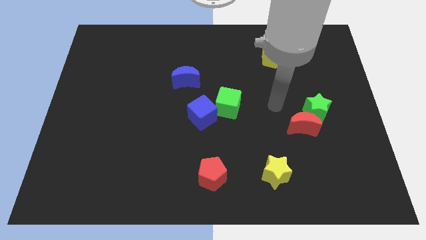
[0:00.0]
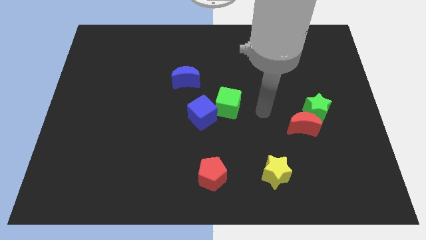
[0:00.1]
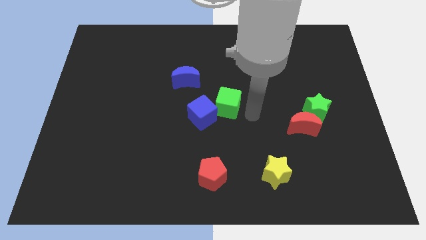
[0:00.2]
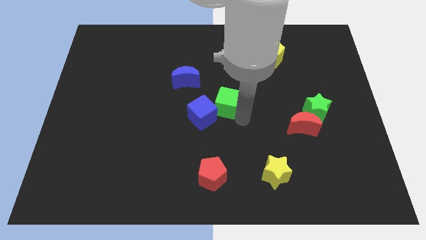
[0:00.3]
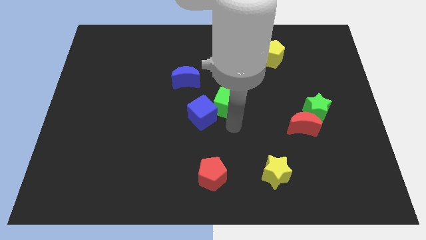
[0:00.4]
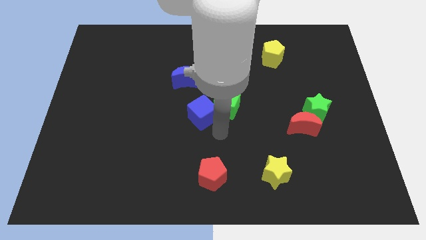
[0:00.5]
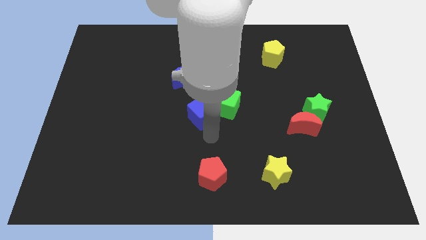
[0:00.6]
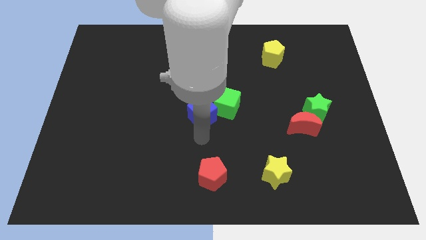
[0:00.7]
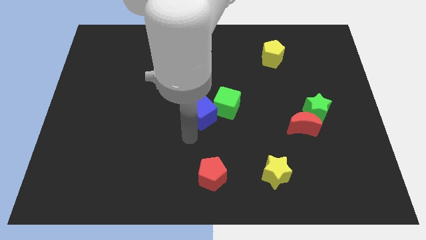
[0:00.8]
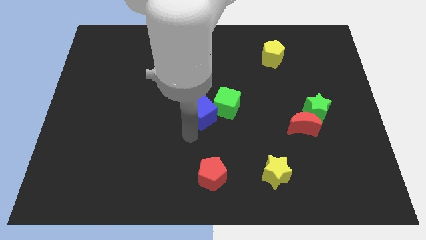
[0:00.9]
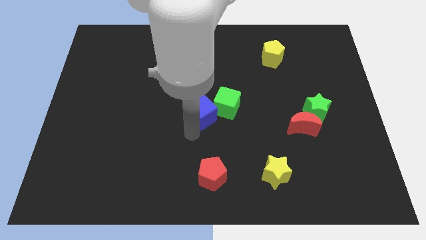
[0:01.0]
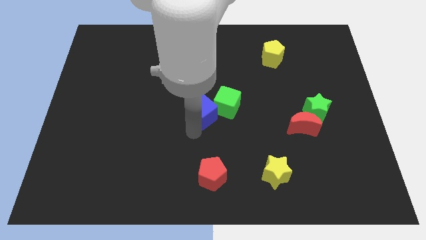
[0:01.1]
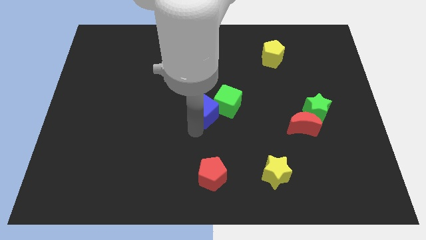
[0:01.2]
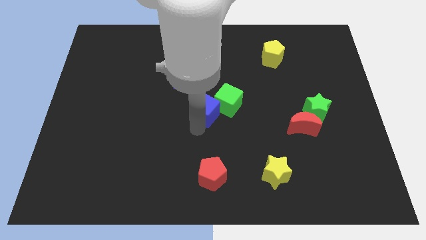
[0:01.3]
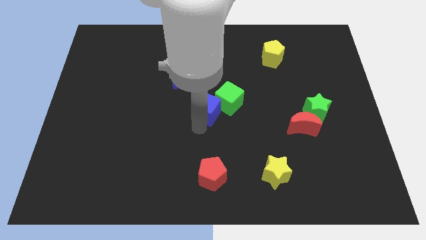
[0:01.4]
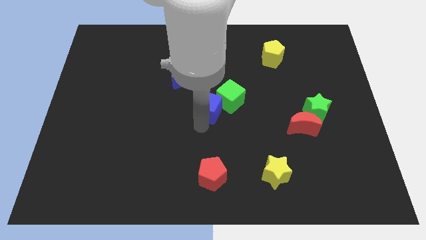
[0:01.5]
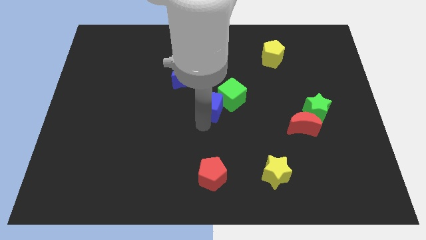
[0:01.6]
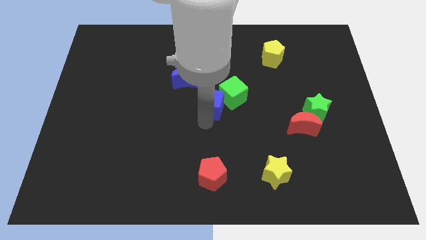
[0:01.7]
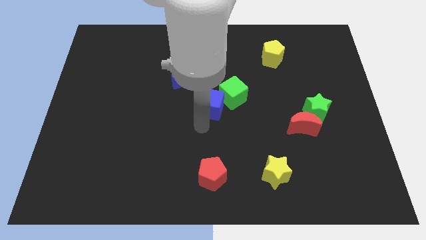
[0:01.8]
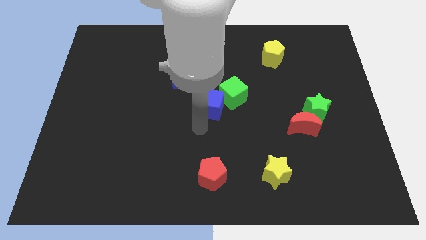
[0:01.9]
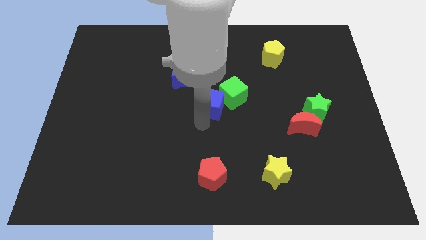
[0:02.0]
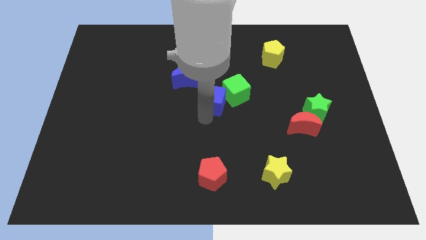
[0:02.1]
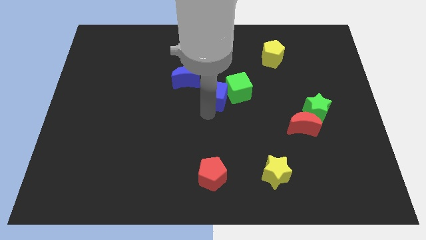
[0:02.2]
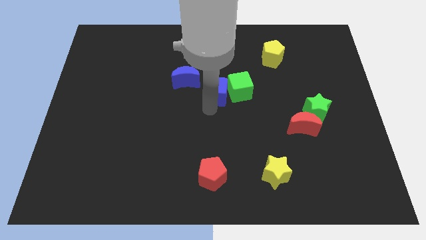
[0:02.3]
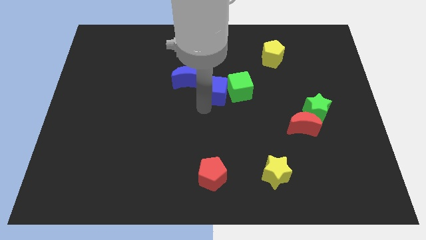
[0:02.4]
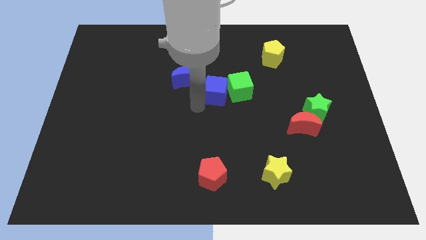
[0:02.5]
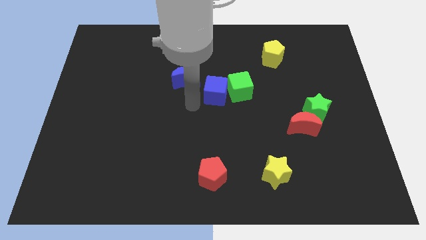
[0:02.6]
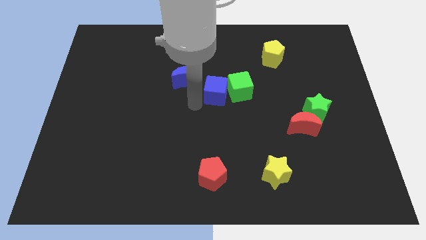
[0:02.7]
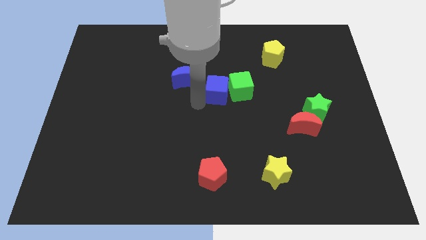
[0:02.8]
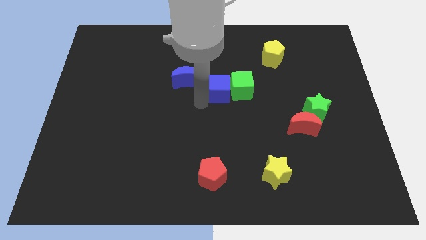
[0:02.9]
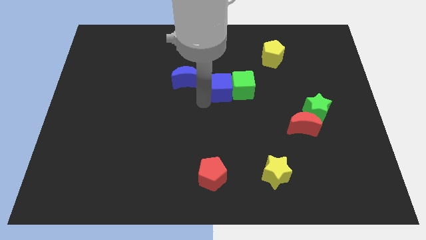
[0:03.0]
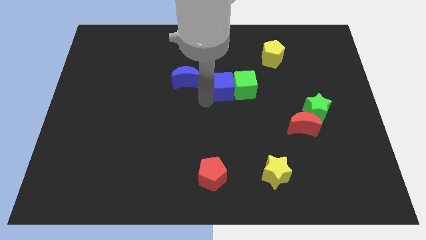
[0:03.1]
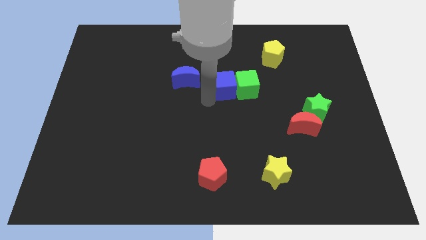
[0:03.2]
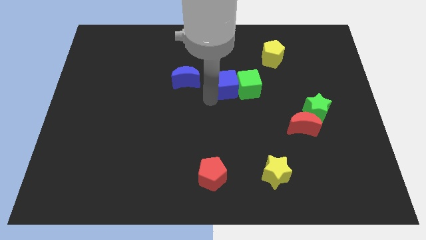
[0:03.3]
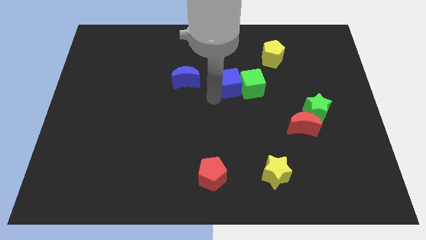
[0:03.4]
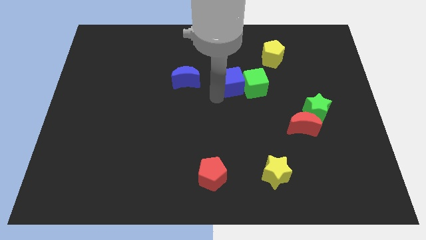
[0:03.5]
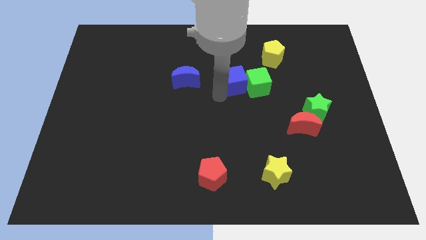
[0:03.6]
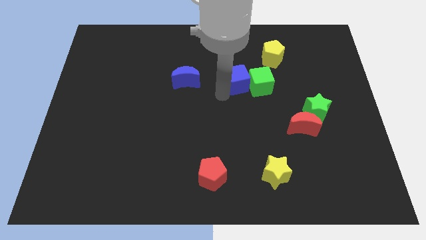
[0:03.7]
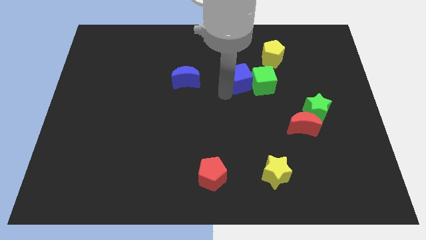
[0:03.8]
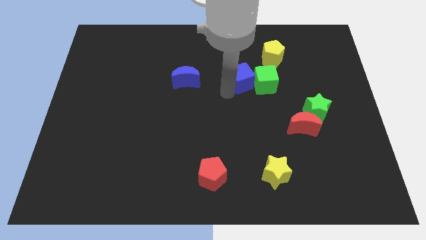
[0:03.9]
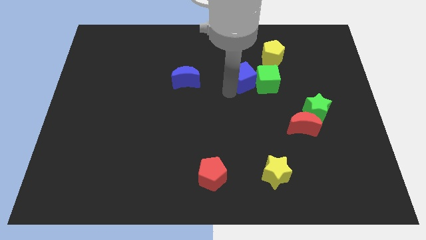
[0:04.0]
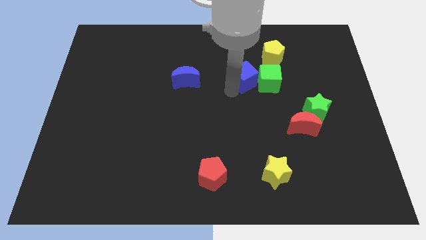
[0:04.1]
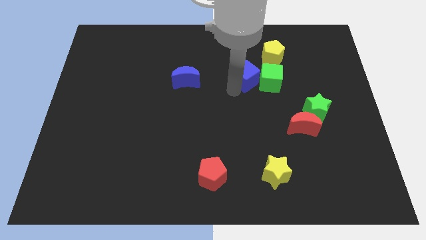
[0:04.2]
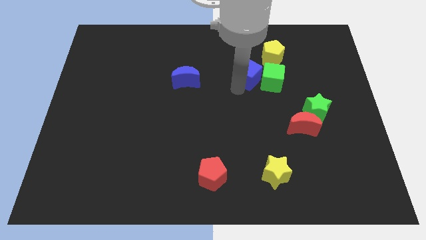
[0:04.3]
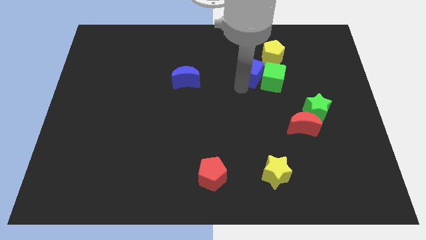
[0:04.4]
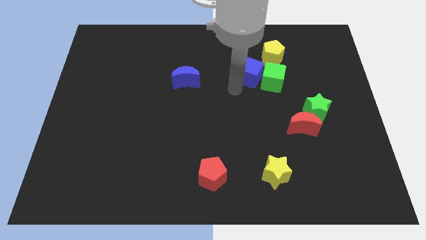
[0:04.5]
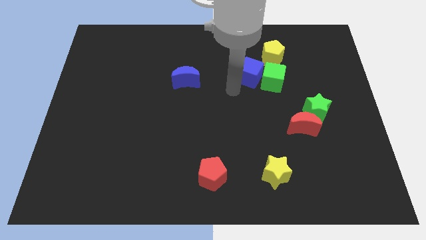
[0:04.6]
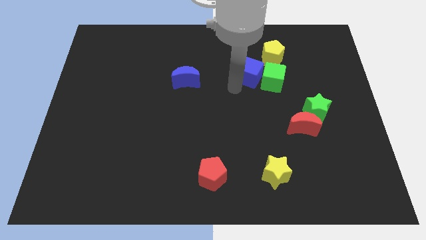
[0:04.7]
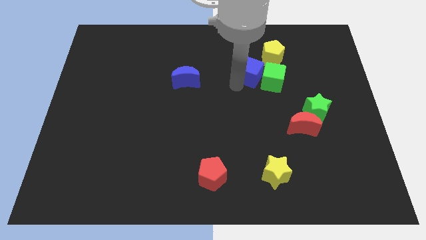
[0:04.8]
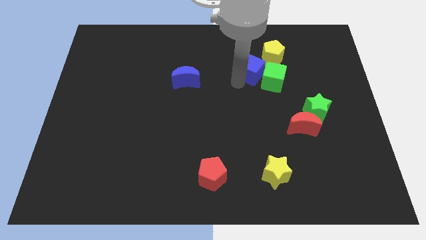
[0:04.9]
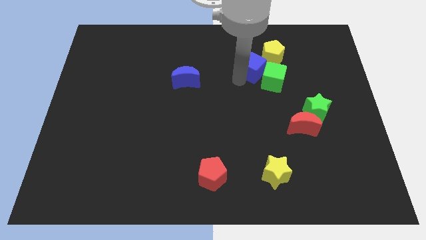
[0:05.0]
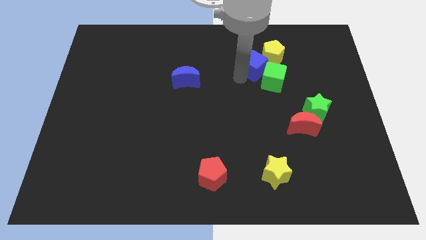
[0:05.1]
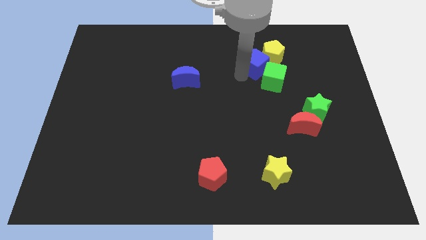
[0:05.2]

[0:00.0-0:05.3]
push the blue cube close to the yellow pentagon

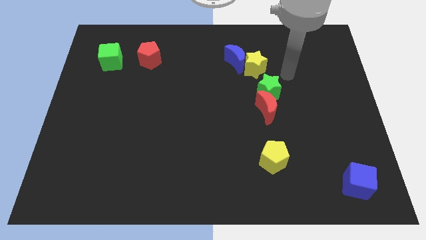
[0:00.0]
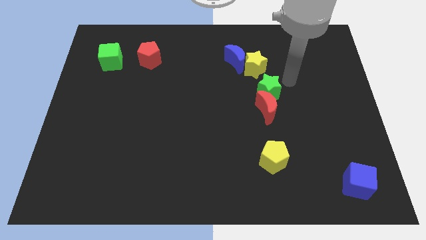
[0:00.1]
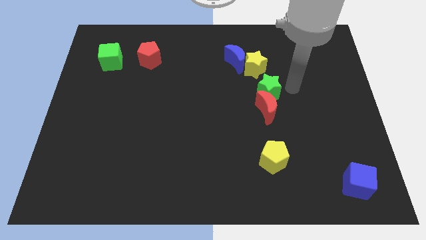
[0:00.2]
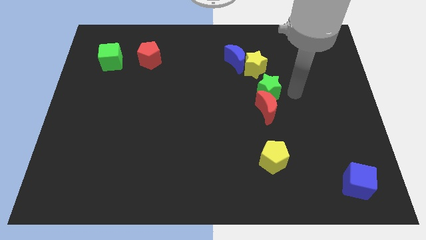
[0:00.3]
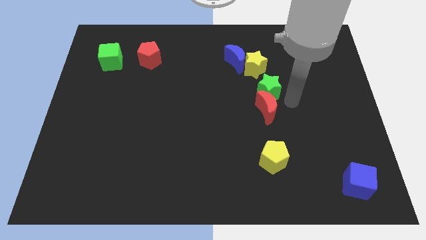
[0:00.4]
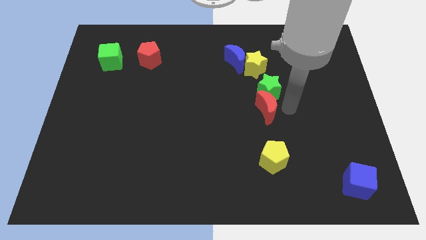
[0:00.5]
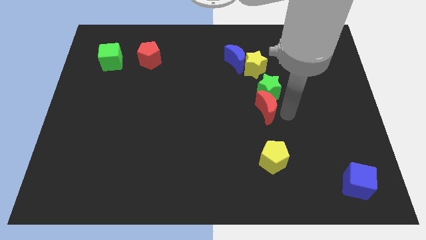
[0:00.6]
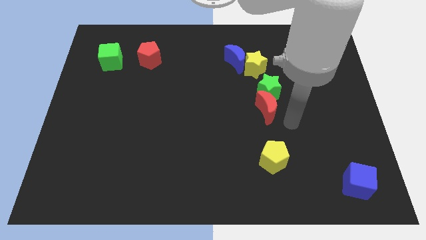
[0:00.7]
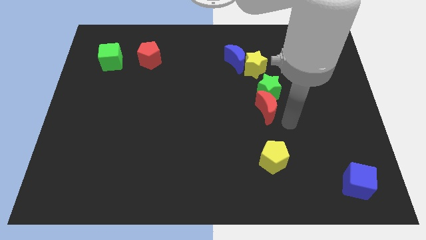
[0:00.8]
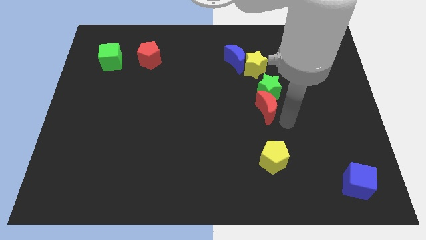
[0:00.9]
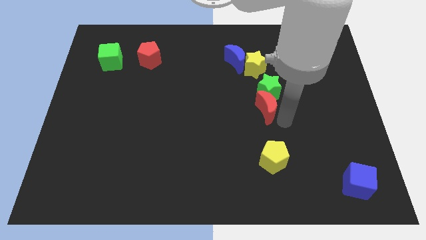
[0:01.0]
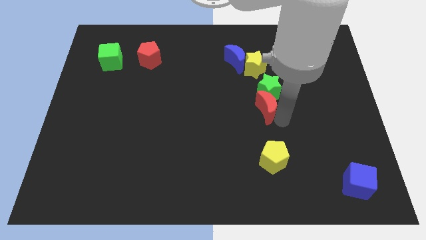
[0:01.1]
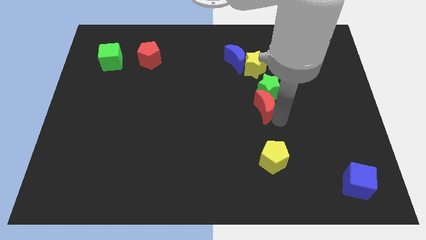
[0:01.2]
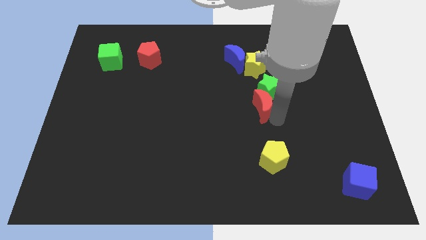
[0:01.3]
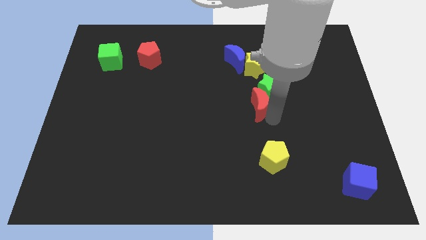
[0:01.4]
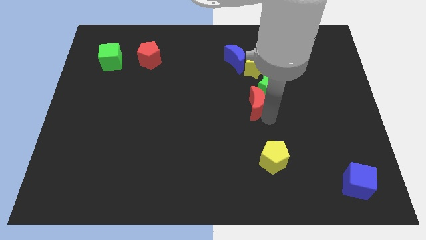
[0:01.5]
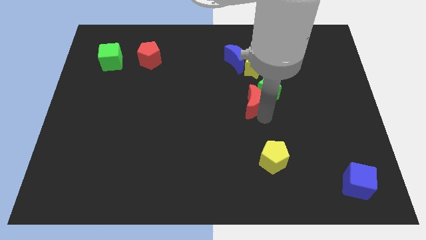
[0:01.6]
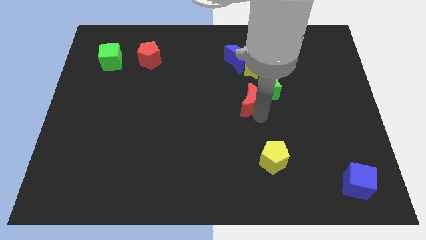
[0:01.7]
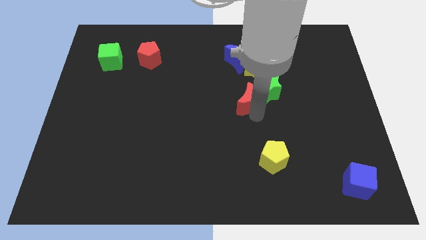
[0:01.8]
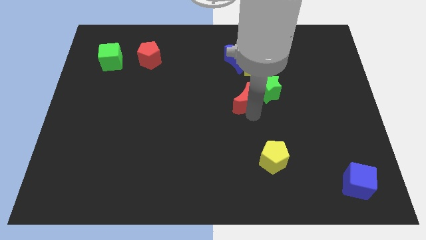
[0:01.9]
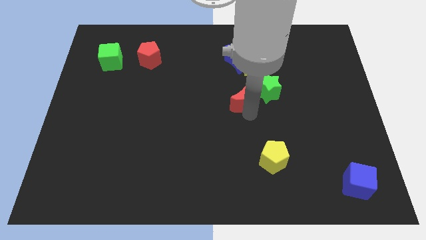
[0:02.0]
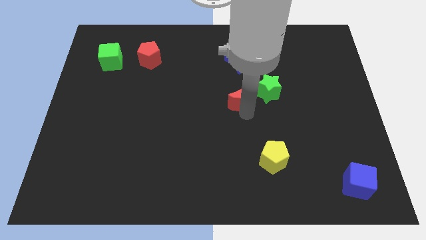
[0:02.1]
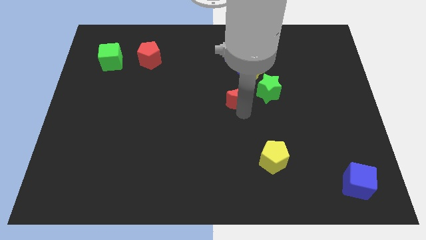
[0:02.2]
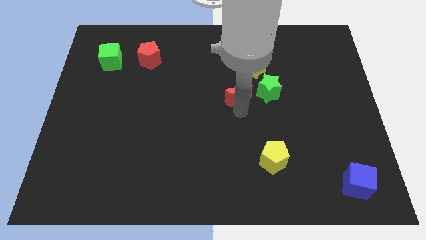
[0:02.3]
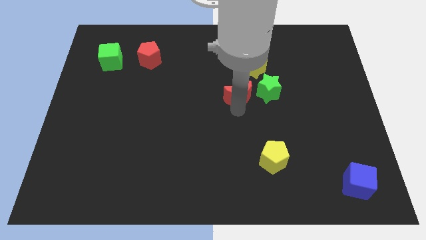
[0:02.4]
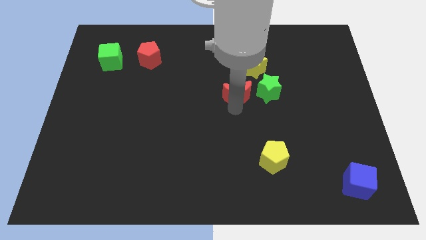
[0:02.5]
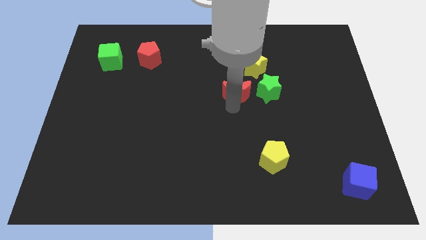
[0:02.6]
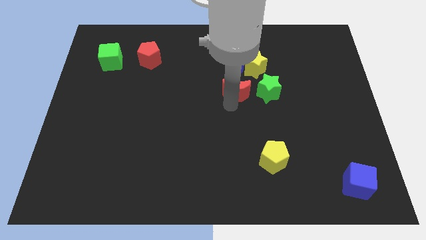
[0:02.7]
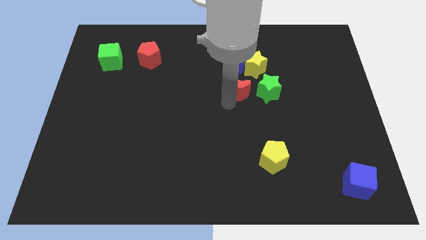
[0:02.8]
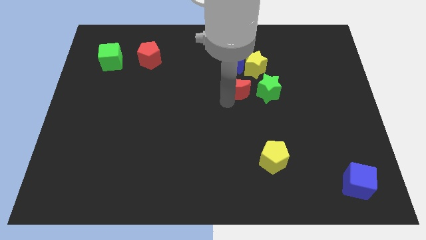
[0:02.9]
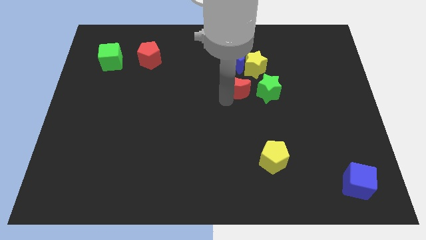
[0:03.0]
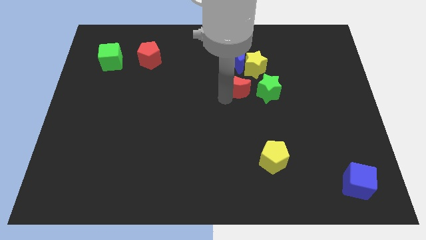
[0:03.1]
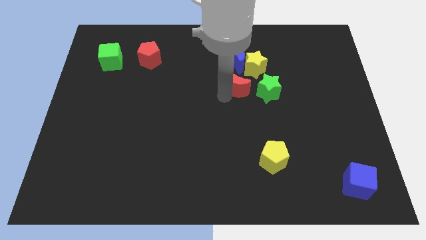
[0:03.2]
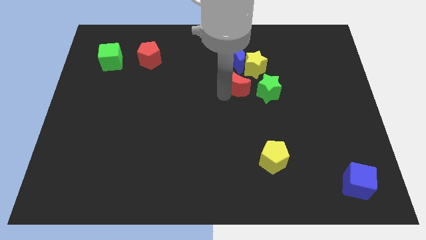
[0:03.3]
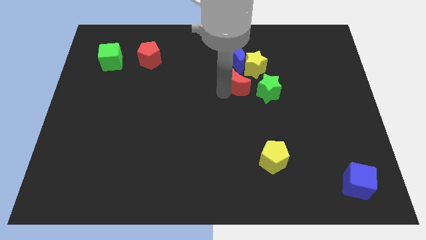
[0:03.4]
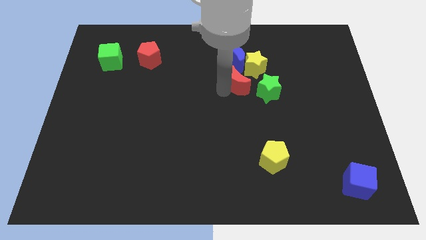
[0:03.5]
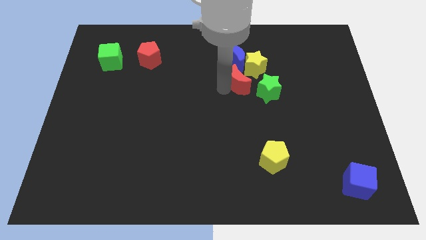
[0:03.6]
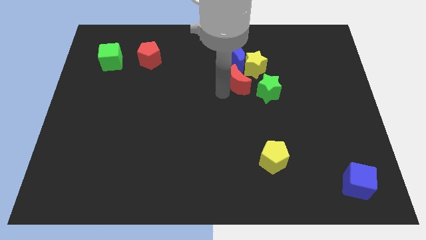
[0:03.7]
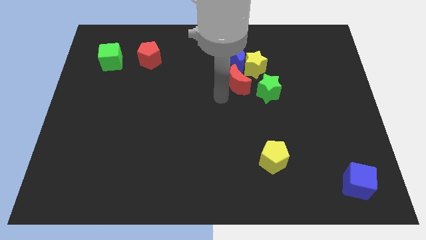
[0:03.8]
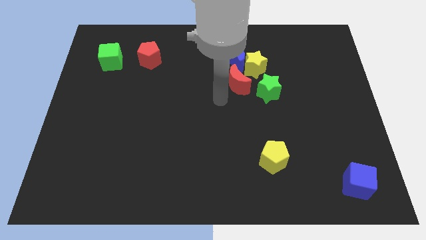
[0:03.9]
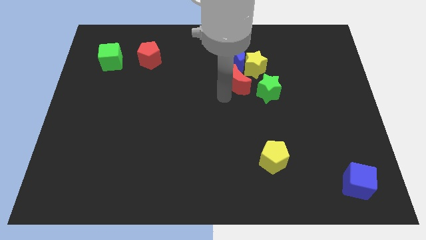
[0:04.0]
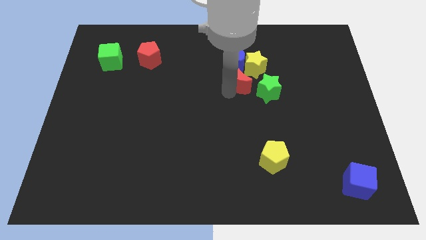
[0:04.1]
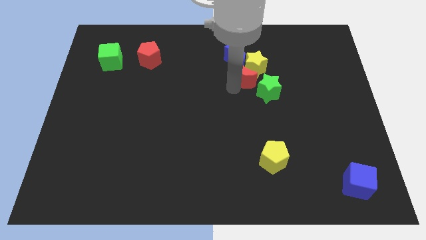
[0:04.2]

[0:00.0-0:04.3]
move the red moon towards the yellow star
